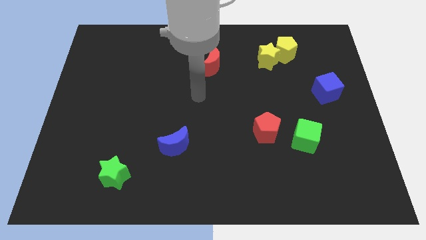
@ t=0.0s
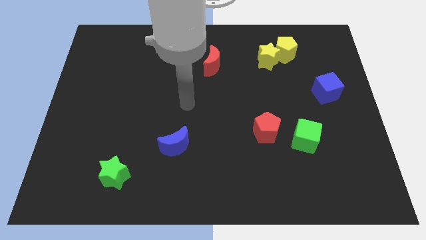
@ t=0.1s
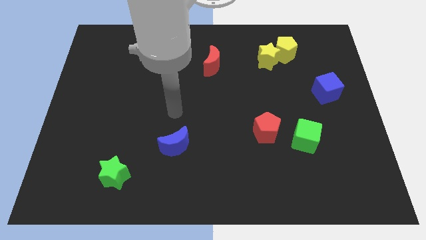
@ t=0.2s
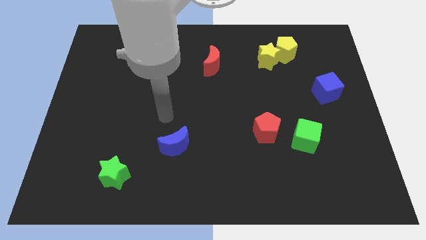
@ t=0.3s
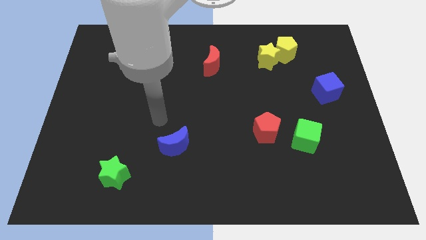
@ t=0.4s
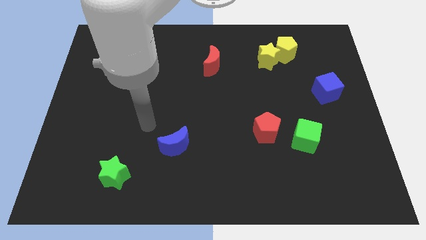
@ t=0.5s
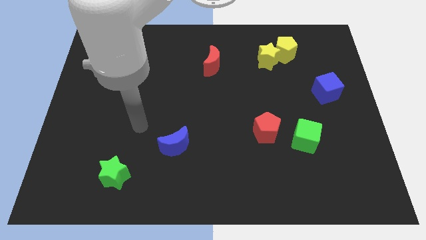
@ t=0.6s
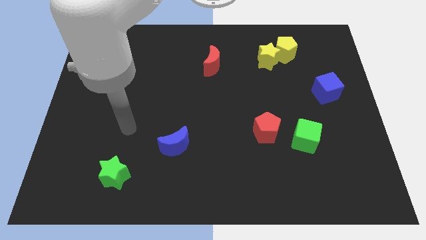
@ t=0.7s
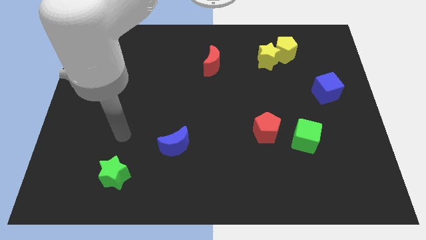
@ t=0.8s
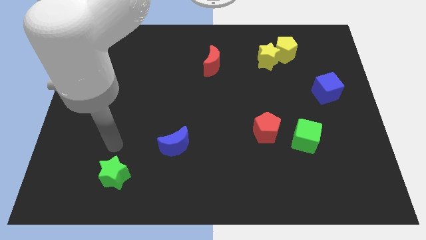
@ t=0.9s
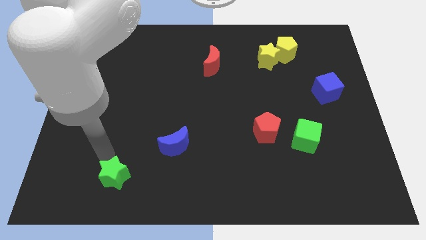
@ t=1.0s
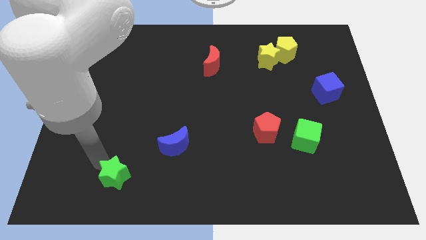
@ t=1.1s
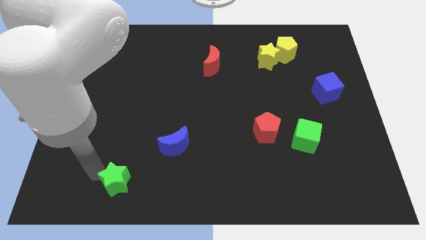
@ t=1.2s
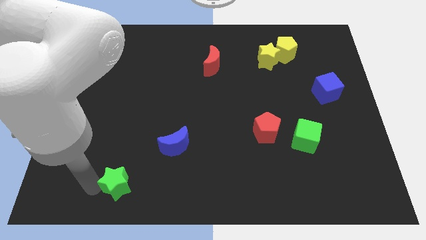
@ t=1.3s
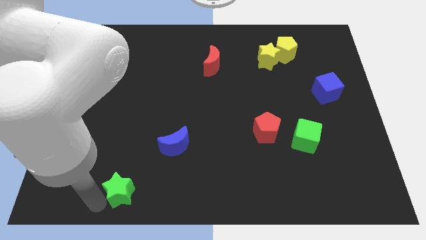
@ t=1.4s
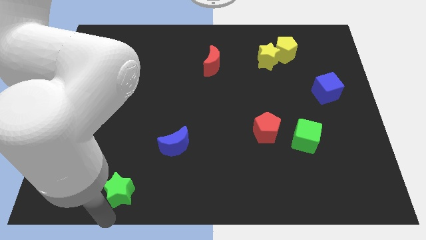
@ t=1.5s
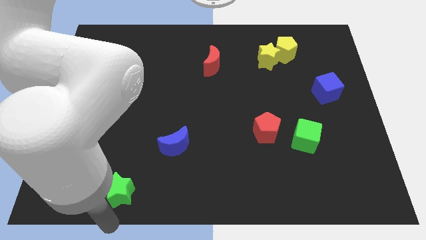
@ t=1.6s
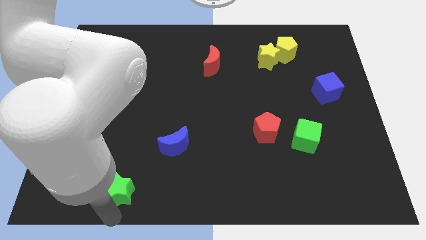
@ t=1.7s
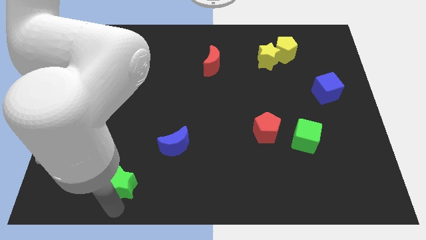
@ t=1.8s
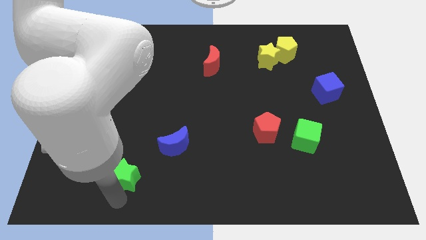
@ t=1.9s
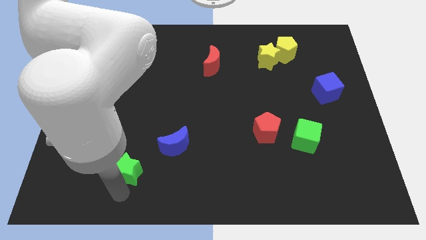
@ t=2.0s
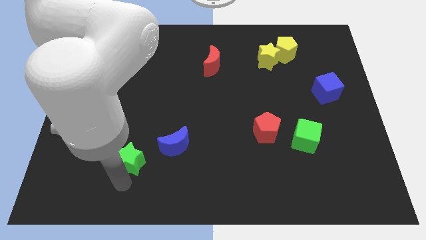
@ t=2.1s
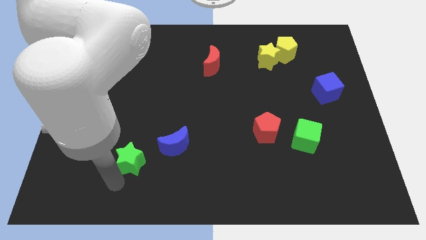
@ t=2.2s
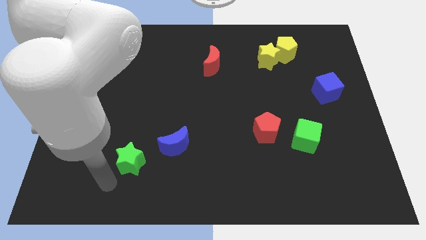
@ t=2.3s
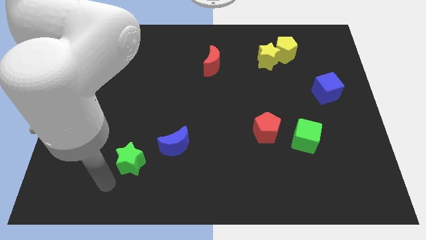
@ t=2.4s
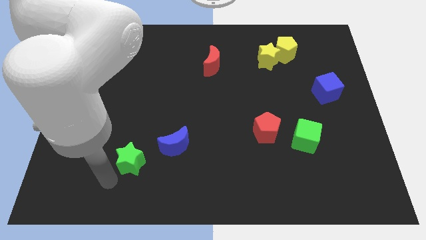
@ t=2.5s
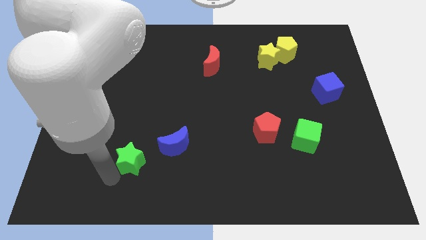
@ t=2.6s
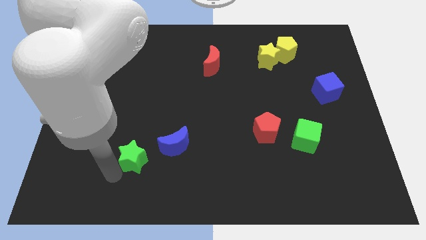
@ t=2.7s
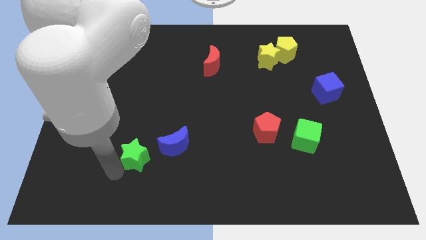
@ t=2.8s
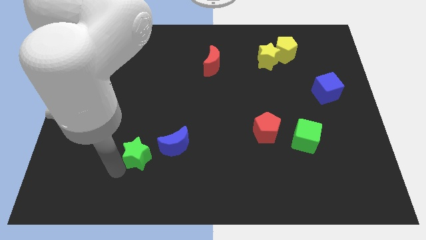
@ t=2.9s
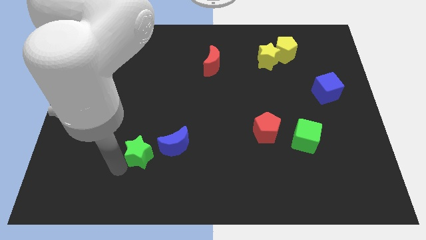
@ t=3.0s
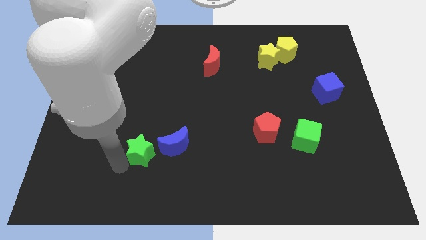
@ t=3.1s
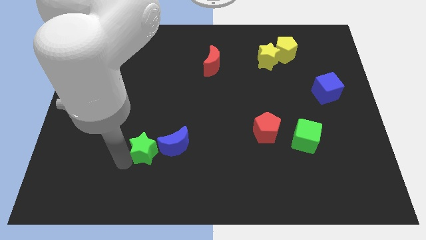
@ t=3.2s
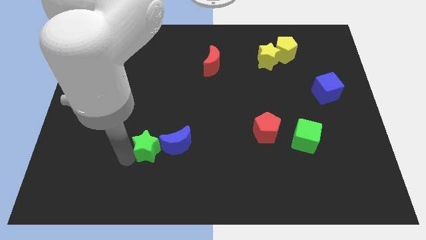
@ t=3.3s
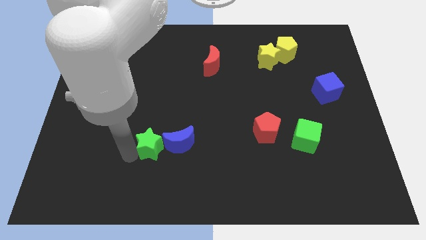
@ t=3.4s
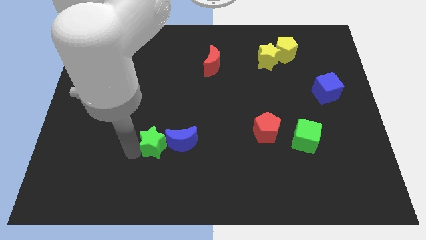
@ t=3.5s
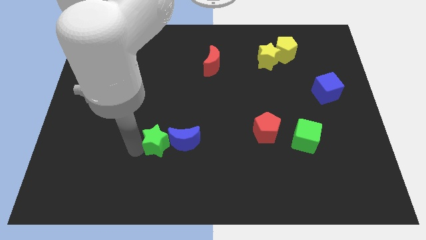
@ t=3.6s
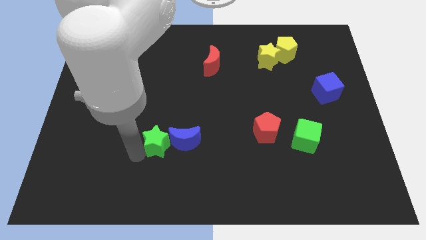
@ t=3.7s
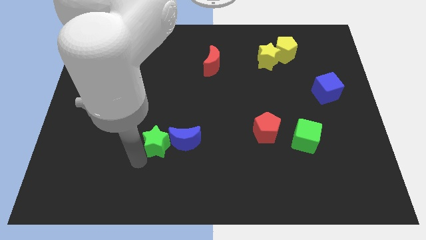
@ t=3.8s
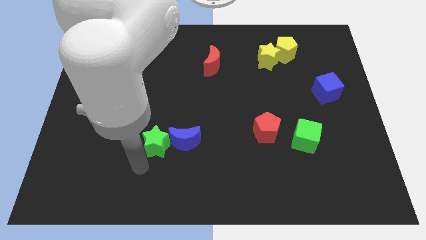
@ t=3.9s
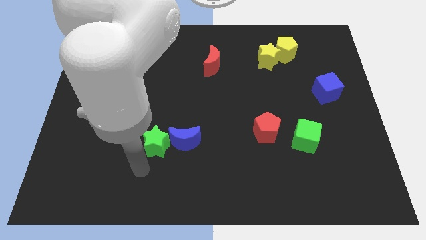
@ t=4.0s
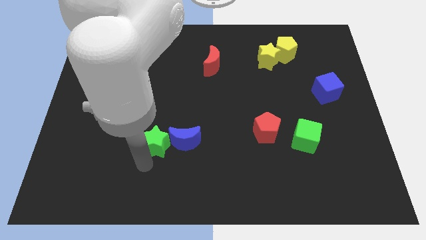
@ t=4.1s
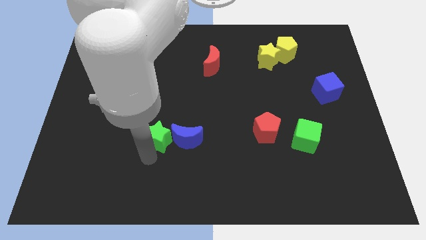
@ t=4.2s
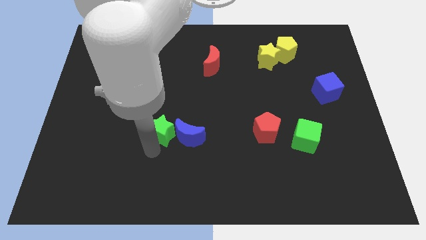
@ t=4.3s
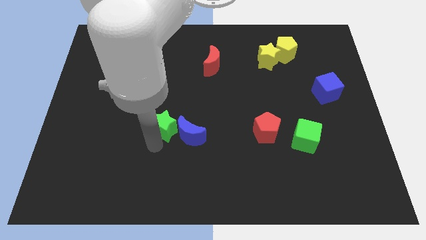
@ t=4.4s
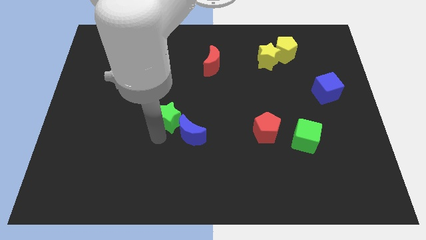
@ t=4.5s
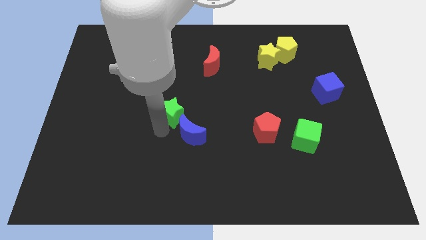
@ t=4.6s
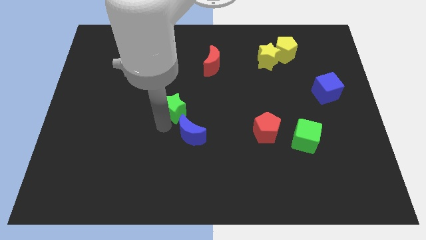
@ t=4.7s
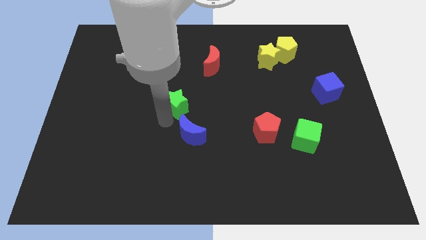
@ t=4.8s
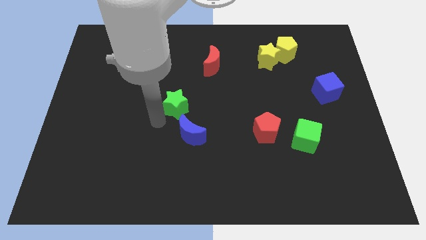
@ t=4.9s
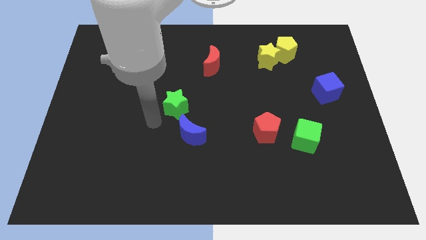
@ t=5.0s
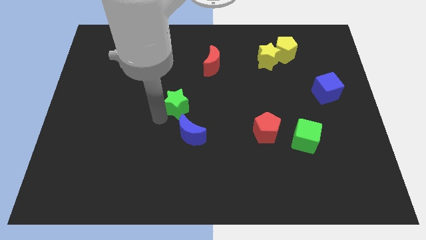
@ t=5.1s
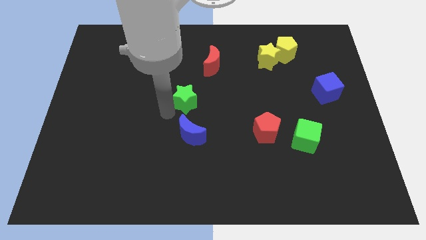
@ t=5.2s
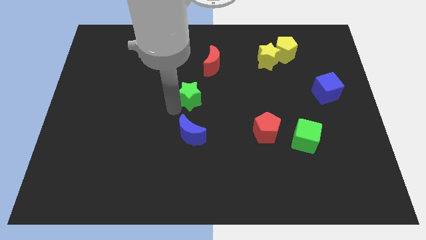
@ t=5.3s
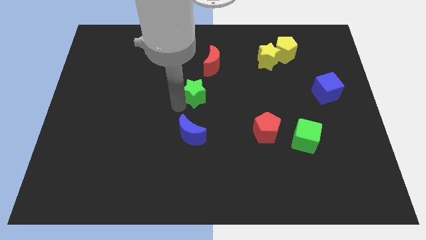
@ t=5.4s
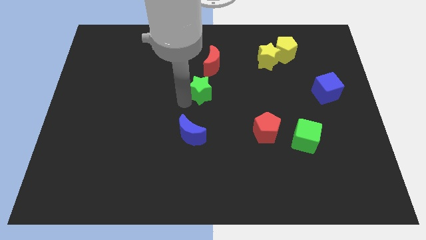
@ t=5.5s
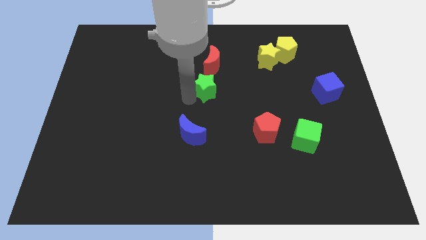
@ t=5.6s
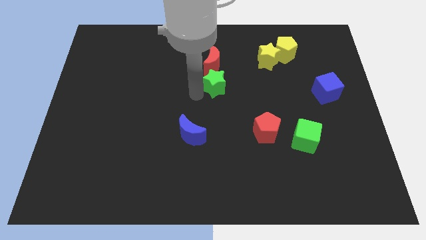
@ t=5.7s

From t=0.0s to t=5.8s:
put the green star diagonally down and to the right of the red moon

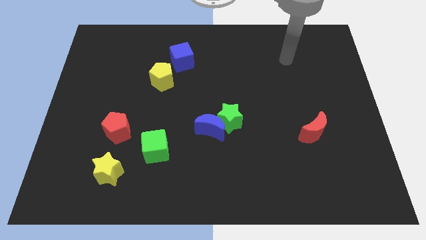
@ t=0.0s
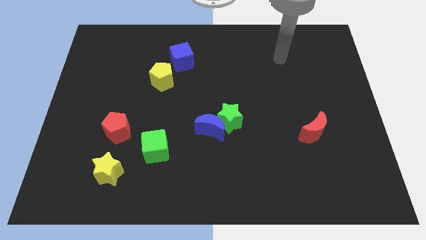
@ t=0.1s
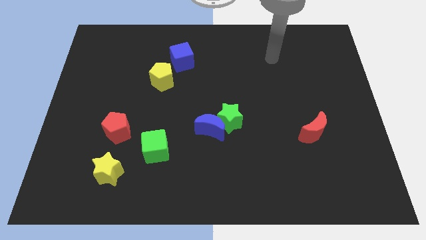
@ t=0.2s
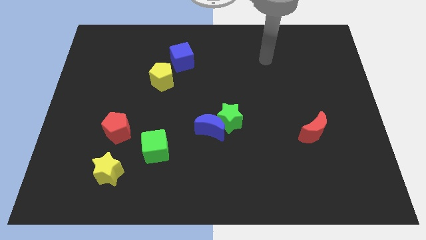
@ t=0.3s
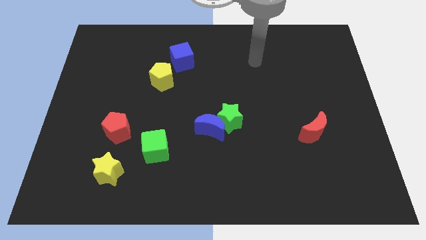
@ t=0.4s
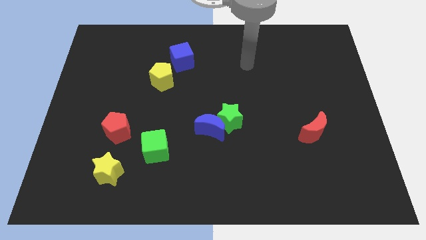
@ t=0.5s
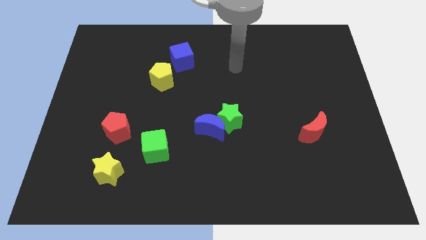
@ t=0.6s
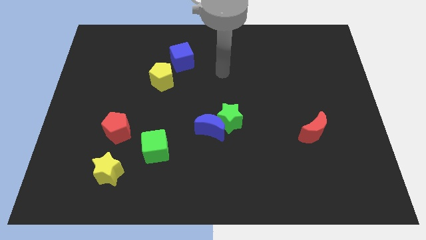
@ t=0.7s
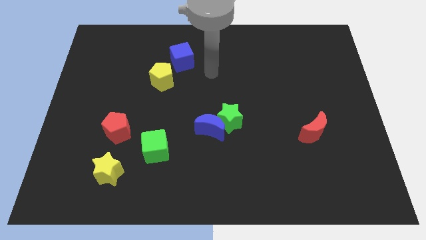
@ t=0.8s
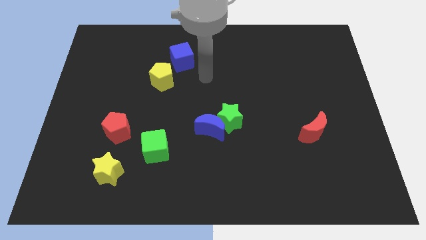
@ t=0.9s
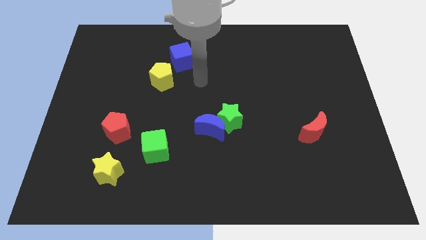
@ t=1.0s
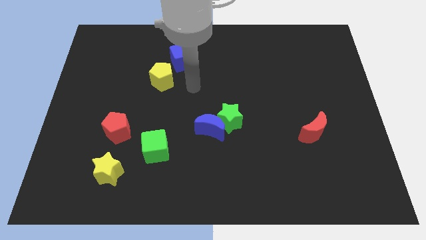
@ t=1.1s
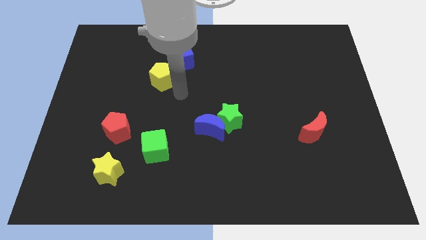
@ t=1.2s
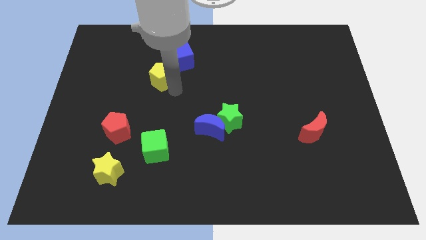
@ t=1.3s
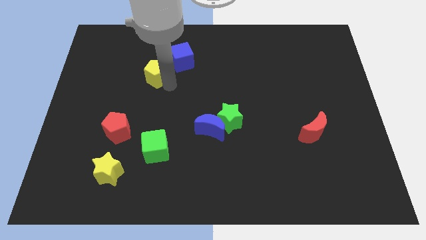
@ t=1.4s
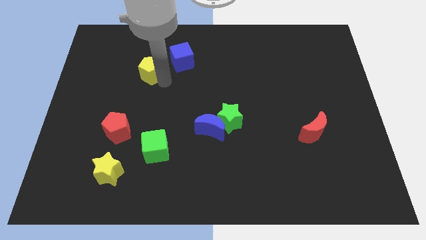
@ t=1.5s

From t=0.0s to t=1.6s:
put the yellow pentagon to the left side of the blue cube
